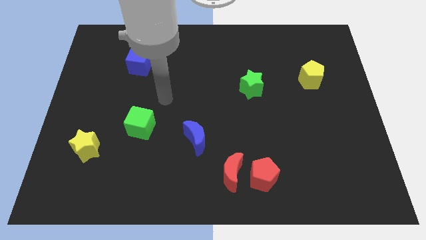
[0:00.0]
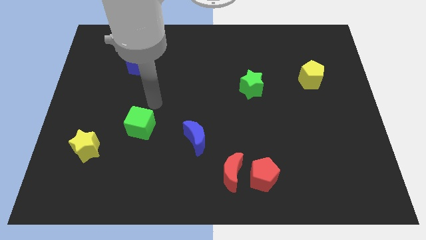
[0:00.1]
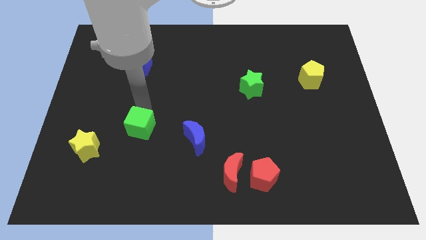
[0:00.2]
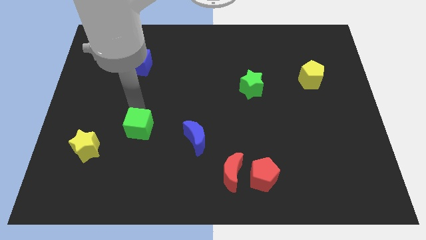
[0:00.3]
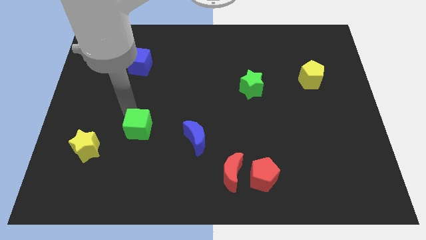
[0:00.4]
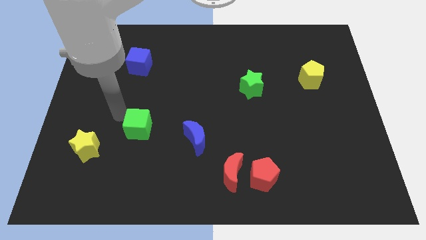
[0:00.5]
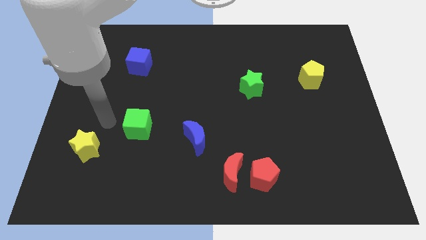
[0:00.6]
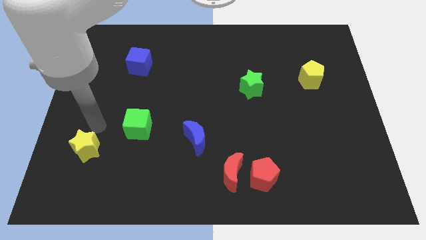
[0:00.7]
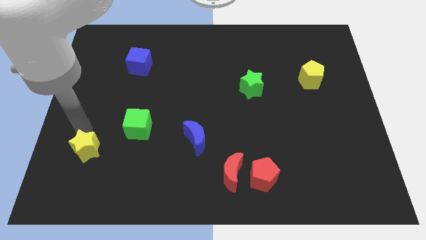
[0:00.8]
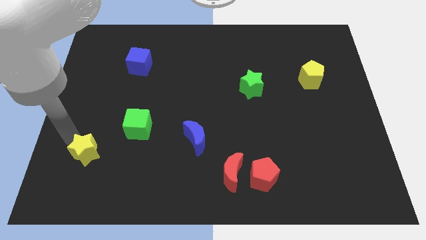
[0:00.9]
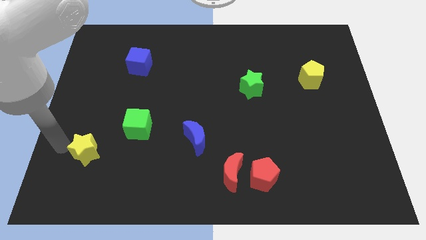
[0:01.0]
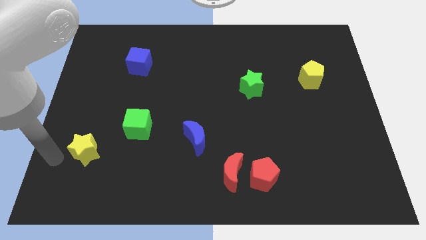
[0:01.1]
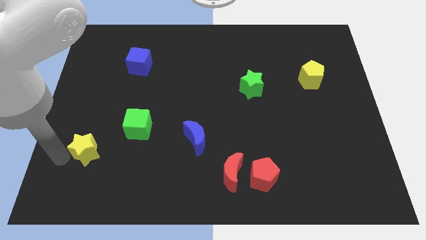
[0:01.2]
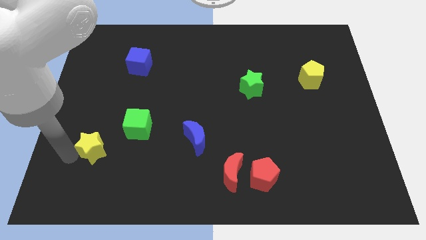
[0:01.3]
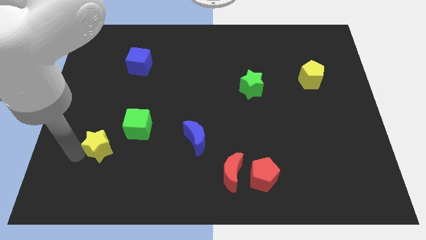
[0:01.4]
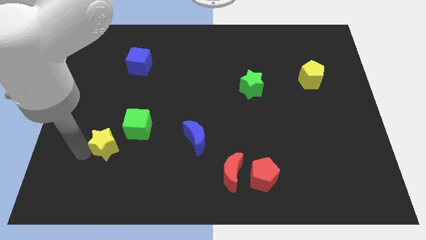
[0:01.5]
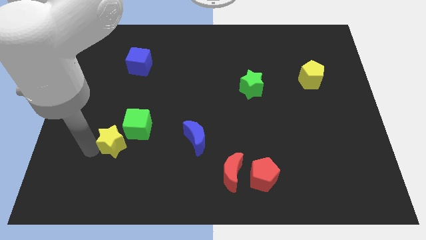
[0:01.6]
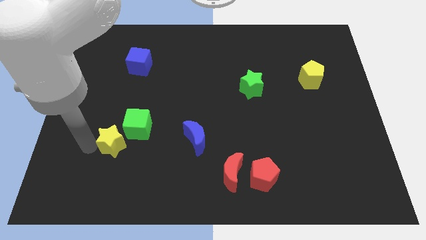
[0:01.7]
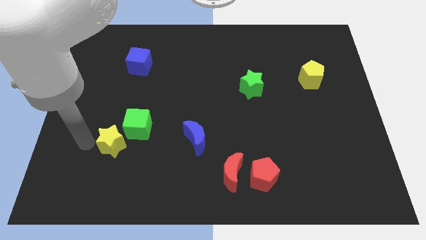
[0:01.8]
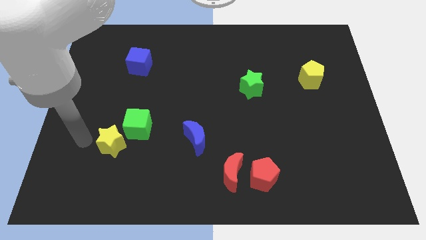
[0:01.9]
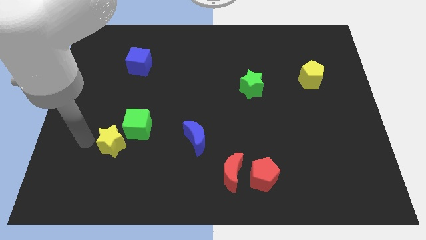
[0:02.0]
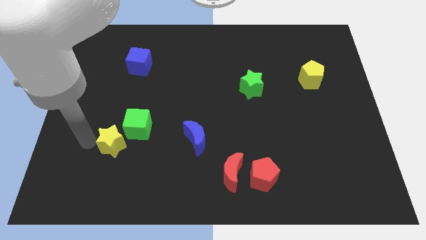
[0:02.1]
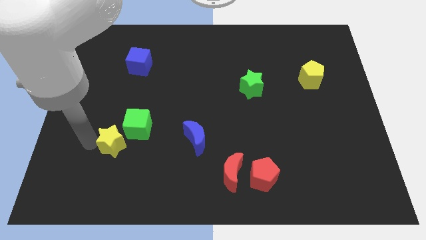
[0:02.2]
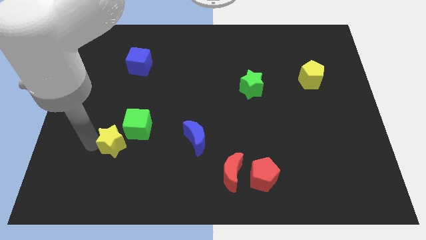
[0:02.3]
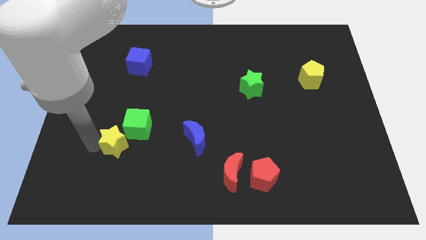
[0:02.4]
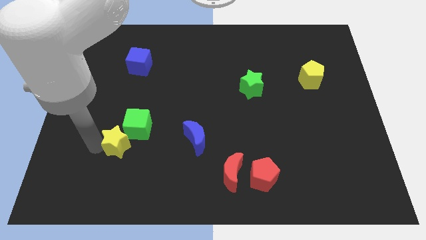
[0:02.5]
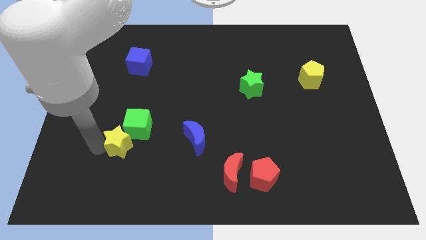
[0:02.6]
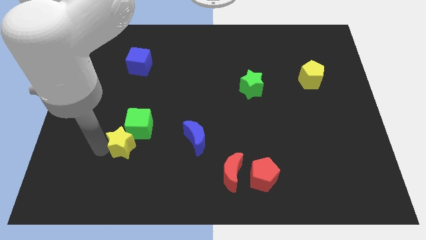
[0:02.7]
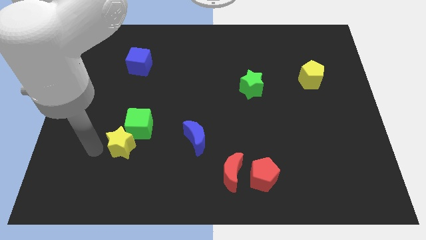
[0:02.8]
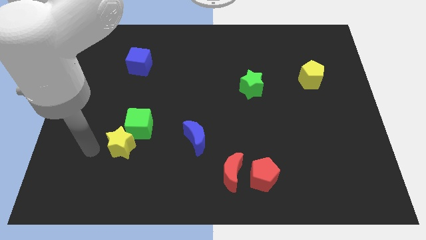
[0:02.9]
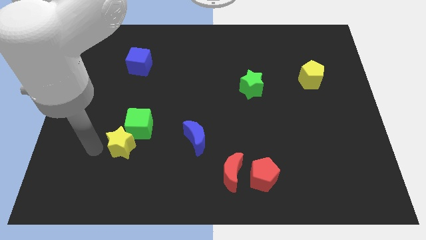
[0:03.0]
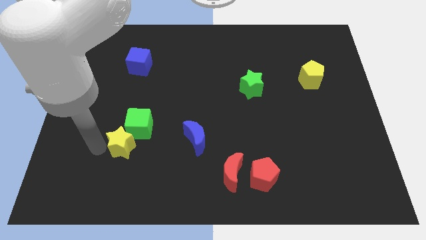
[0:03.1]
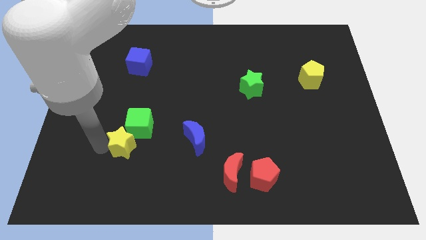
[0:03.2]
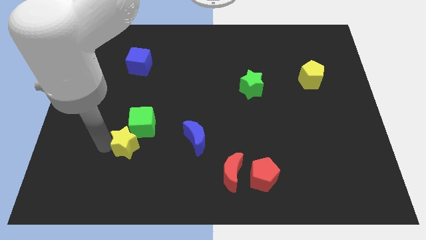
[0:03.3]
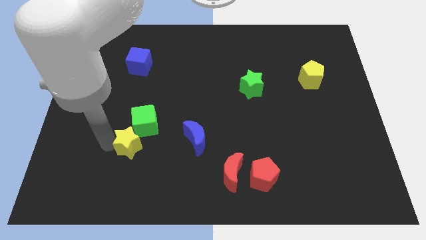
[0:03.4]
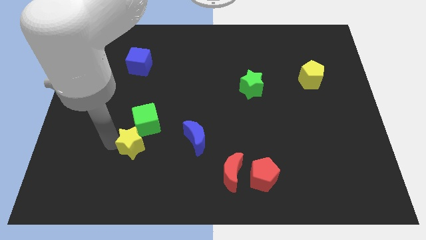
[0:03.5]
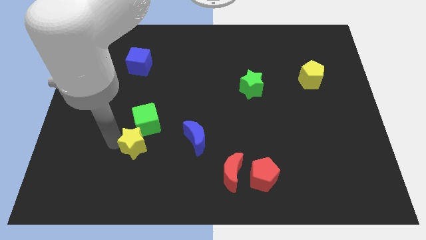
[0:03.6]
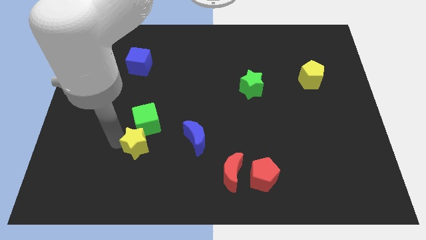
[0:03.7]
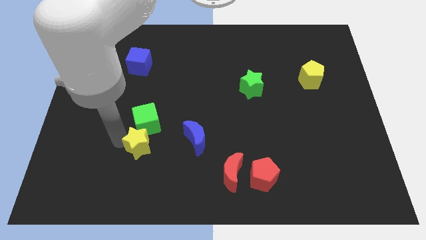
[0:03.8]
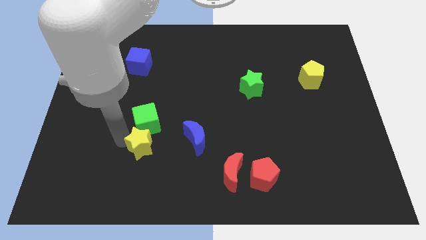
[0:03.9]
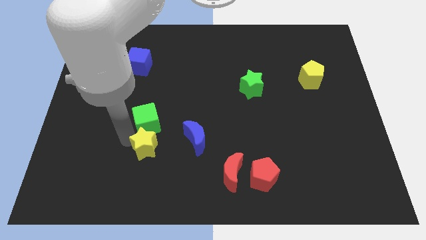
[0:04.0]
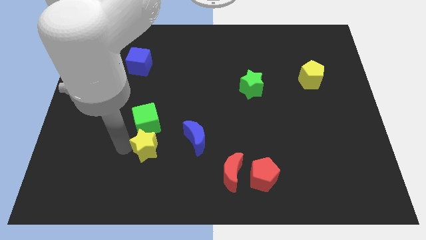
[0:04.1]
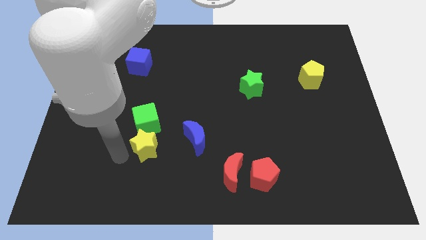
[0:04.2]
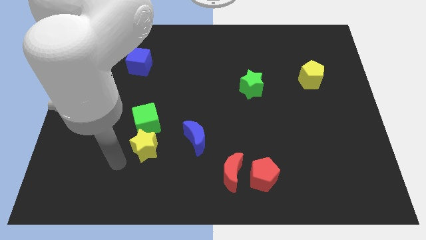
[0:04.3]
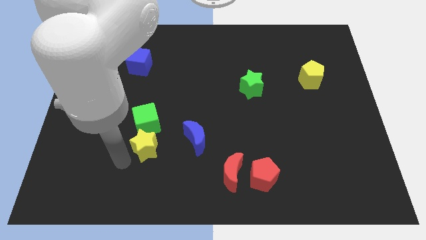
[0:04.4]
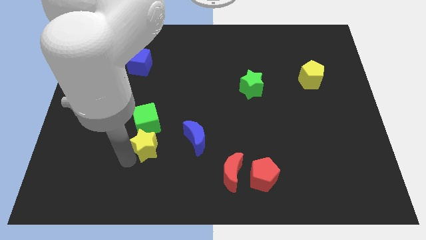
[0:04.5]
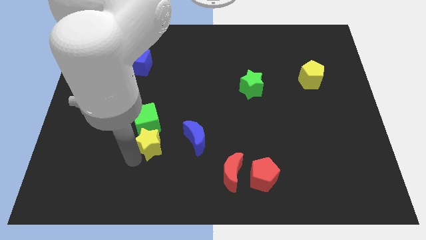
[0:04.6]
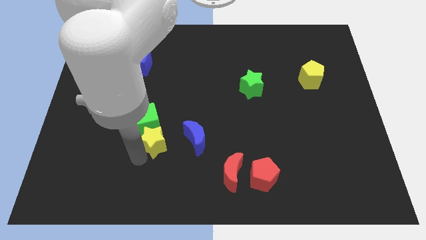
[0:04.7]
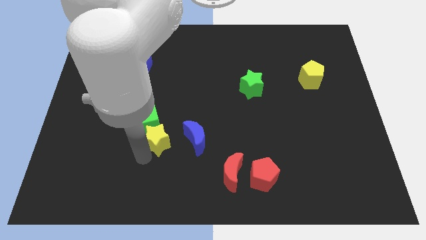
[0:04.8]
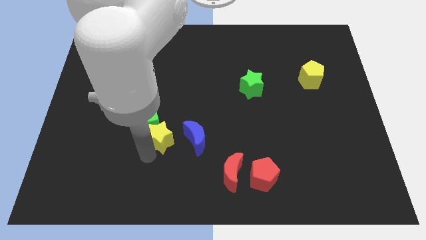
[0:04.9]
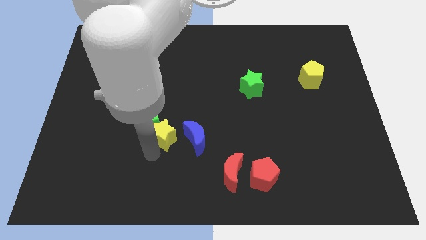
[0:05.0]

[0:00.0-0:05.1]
push the yellow star right of the green cube

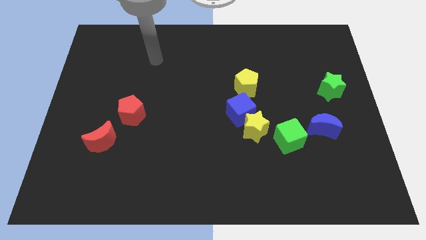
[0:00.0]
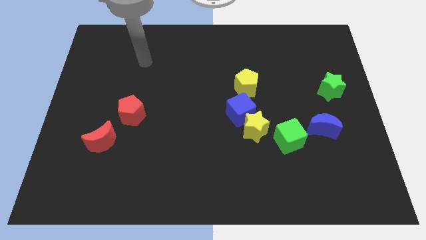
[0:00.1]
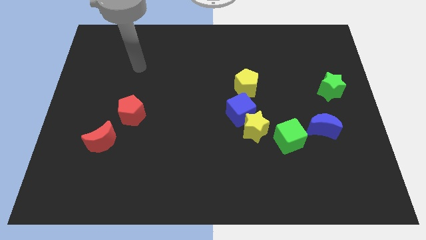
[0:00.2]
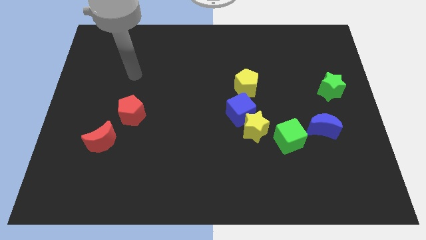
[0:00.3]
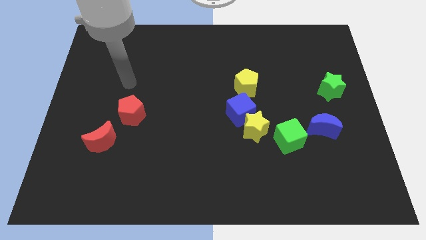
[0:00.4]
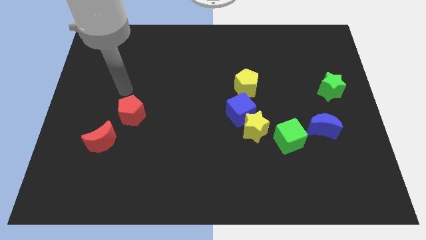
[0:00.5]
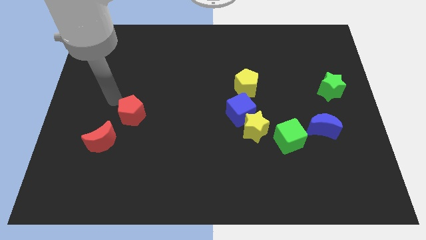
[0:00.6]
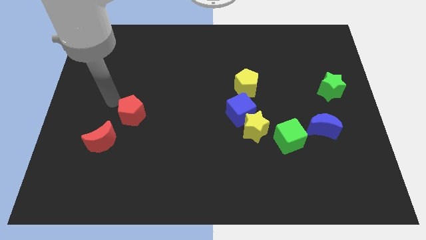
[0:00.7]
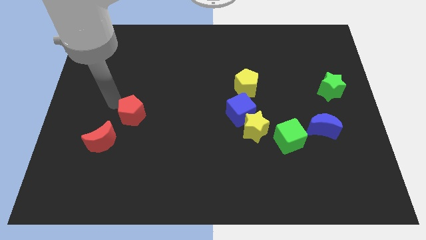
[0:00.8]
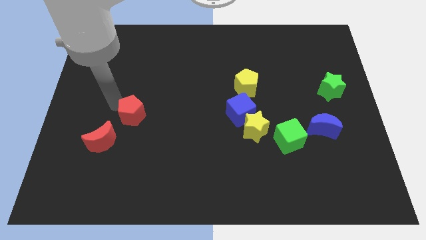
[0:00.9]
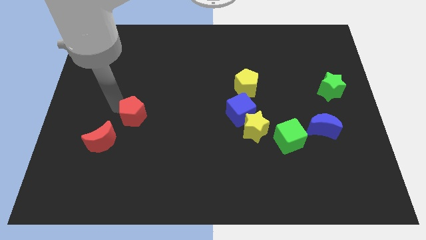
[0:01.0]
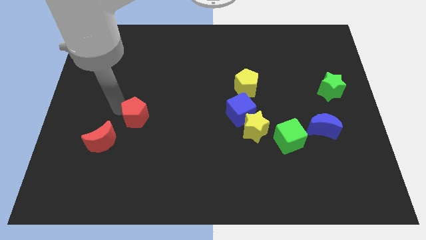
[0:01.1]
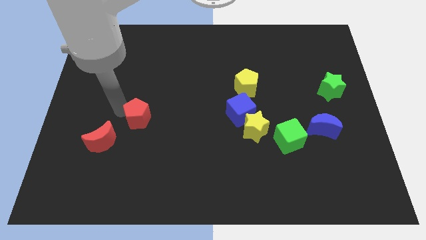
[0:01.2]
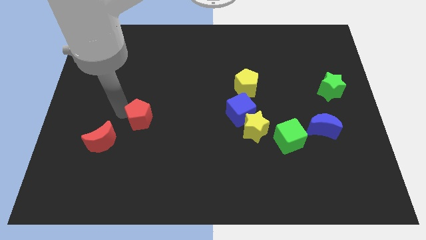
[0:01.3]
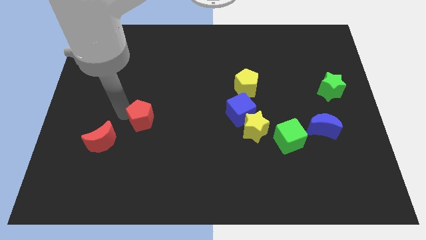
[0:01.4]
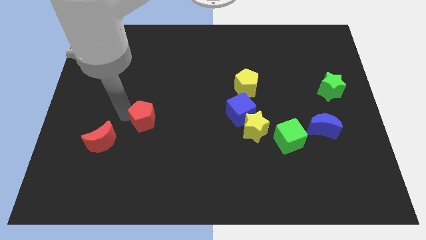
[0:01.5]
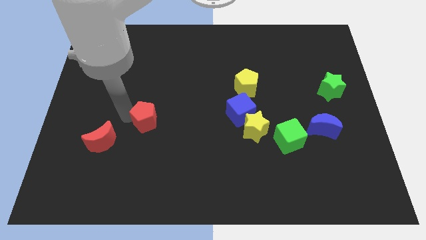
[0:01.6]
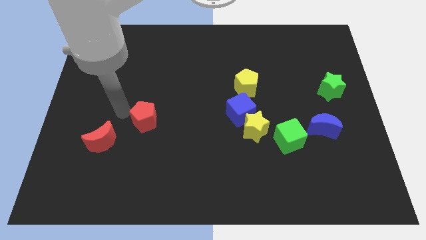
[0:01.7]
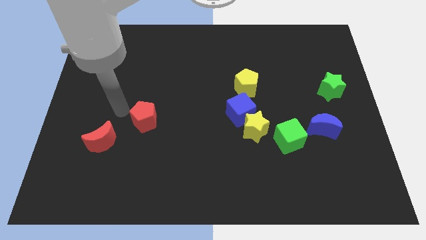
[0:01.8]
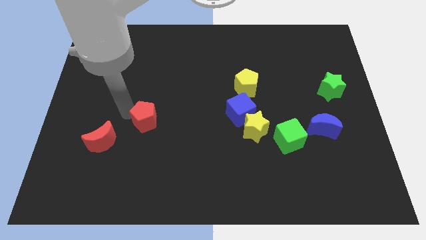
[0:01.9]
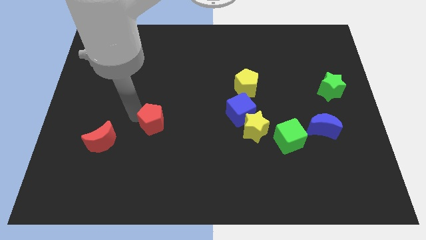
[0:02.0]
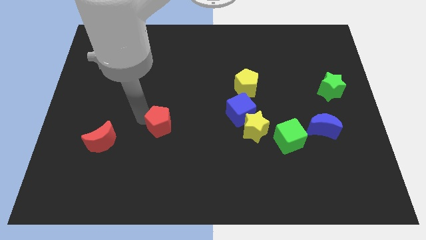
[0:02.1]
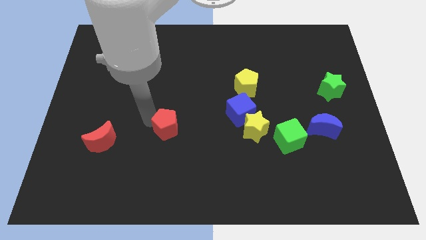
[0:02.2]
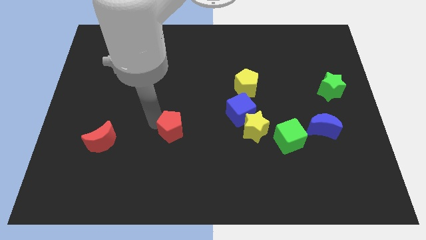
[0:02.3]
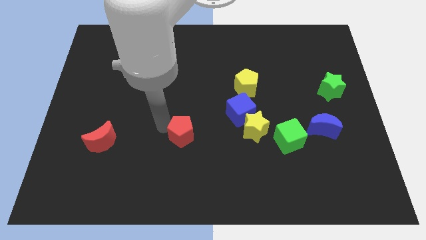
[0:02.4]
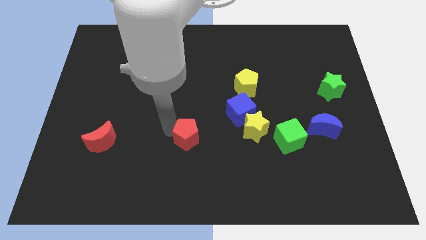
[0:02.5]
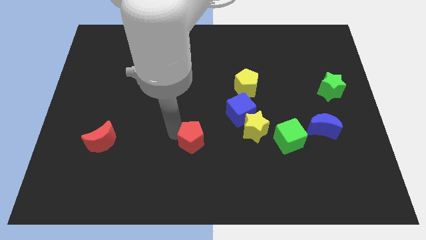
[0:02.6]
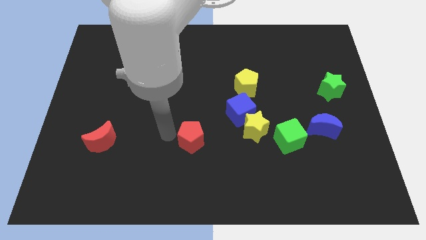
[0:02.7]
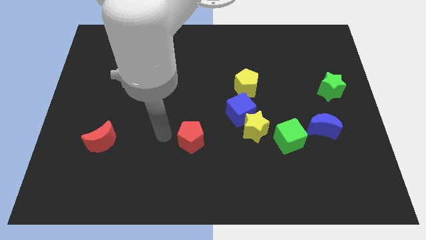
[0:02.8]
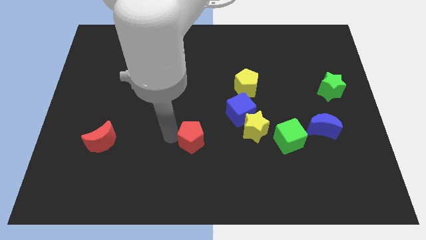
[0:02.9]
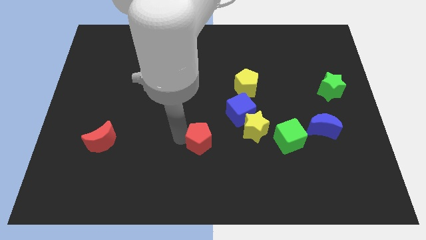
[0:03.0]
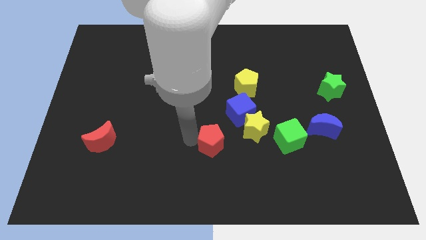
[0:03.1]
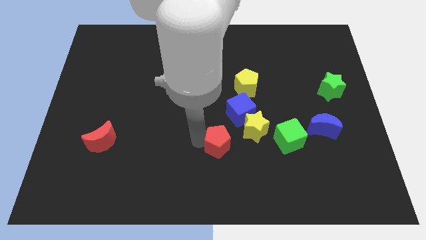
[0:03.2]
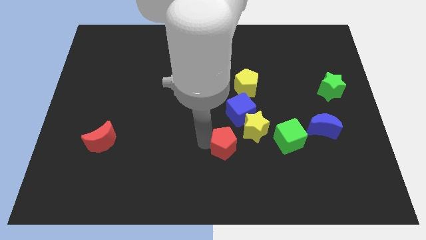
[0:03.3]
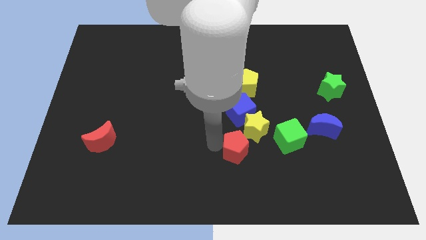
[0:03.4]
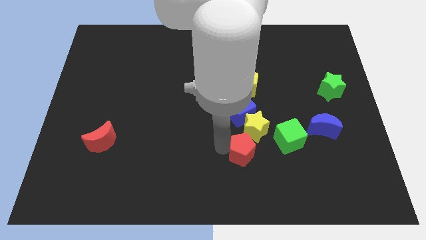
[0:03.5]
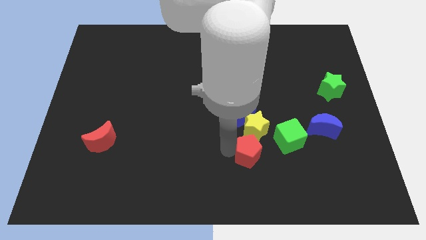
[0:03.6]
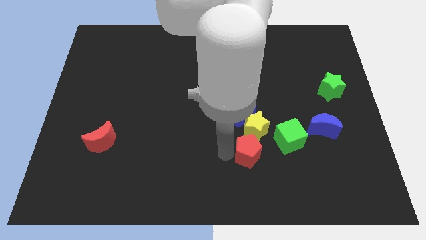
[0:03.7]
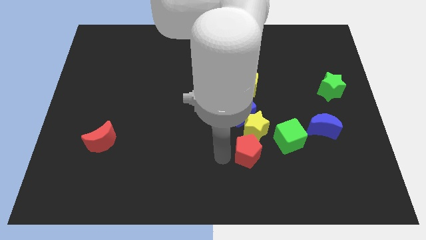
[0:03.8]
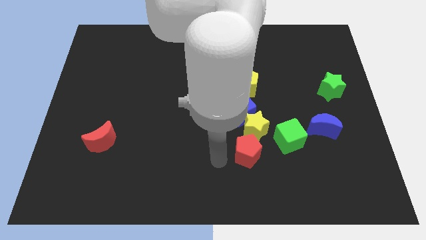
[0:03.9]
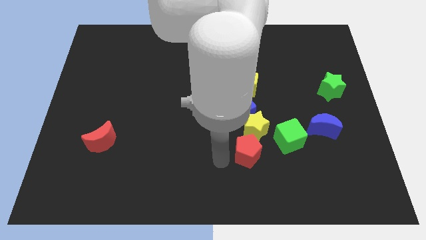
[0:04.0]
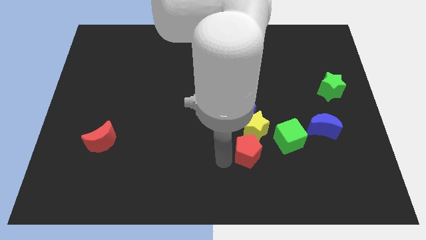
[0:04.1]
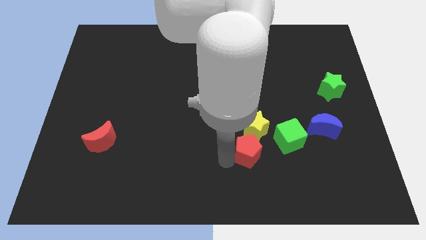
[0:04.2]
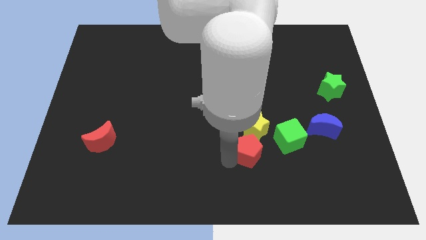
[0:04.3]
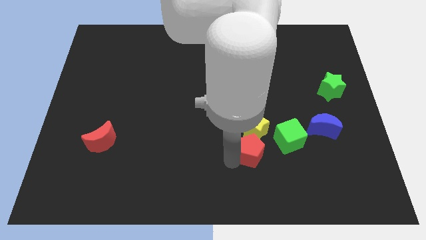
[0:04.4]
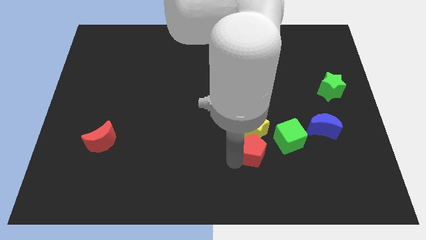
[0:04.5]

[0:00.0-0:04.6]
move the red pentagon diagonally down and to the right of the yellow star
